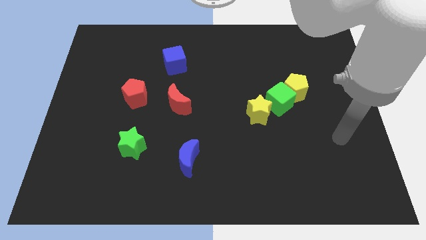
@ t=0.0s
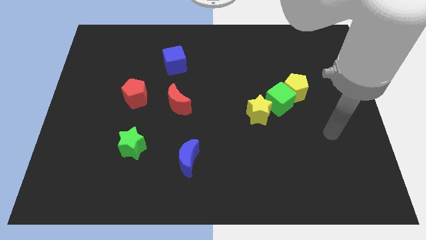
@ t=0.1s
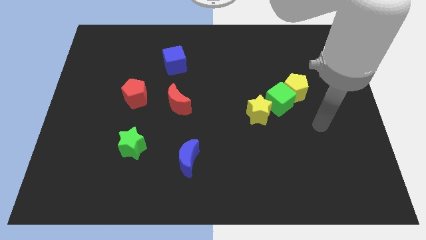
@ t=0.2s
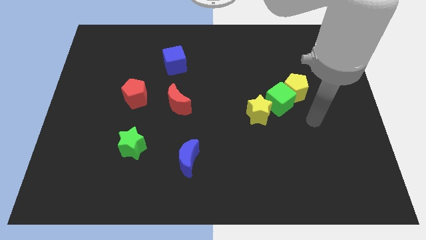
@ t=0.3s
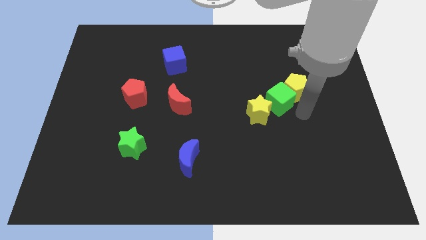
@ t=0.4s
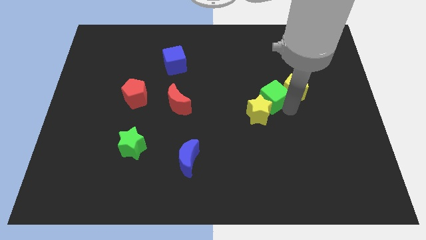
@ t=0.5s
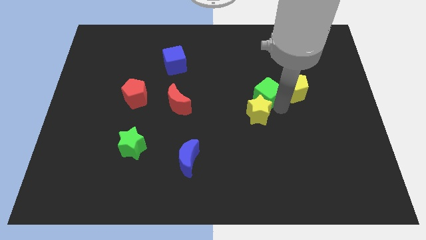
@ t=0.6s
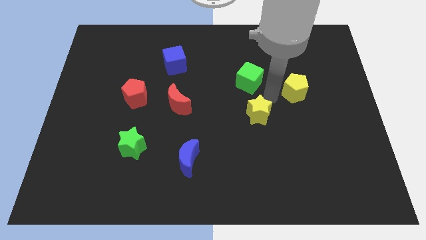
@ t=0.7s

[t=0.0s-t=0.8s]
separate the yellow pentagon from the green cube

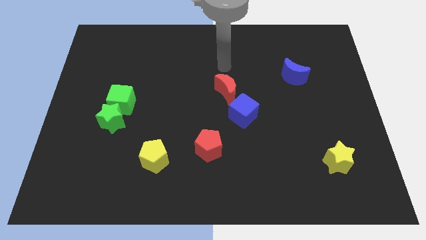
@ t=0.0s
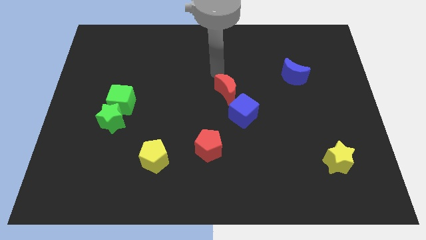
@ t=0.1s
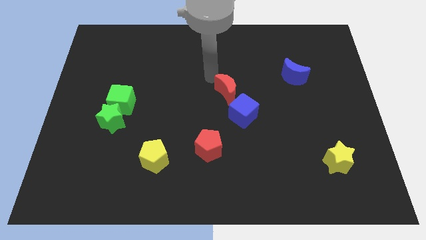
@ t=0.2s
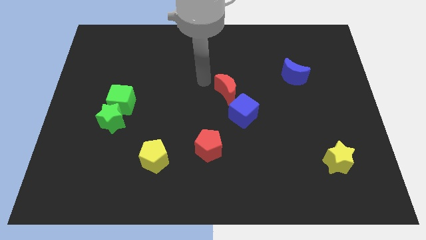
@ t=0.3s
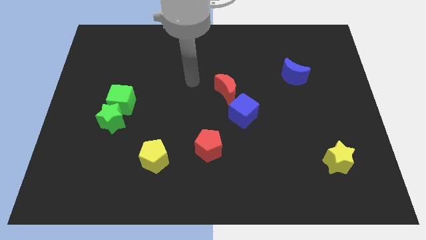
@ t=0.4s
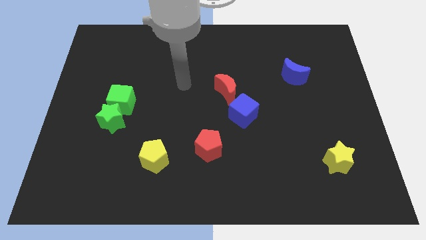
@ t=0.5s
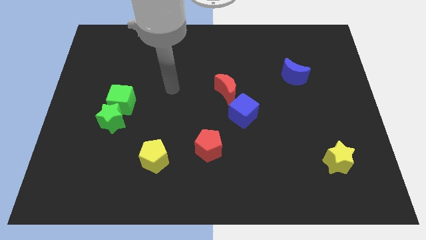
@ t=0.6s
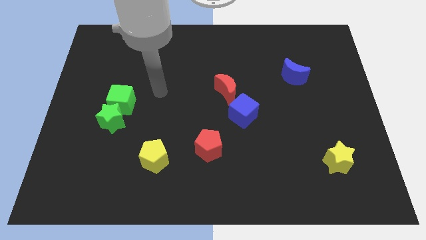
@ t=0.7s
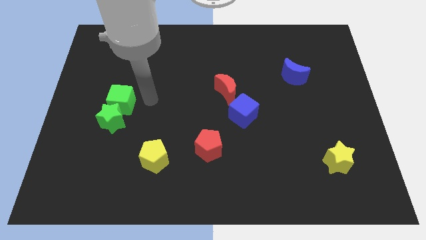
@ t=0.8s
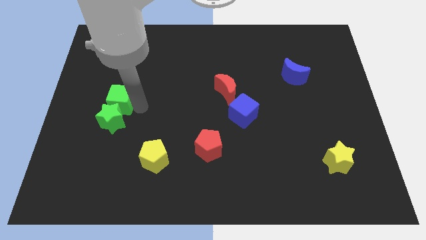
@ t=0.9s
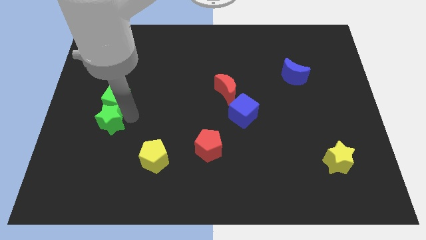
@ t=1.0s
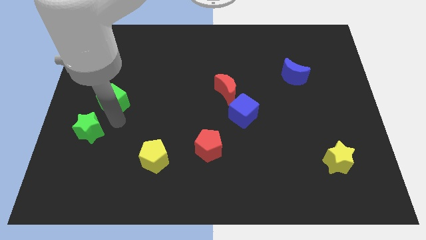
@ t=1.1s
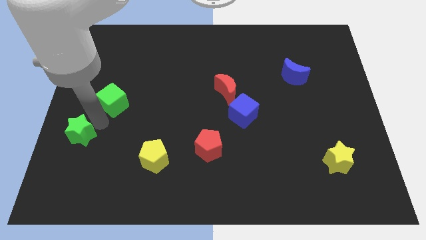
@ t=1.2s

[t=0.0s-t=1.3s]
separate the green cube from the green star

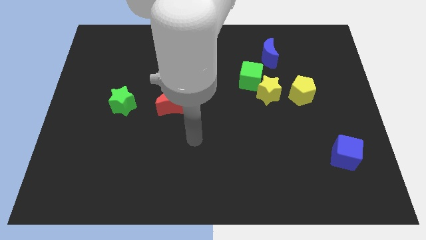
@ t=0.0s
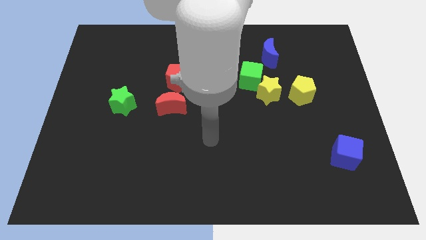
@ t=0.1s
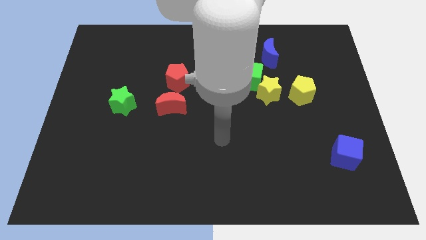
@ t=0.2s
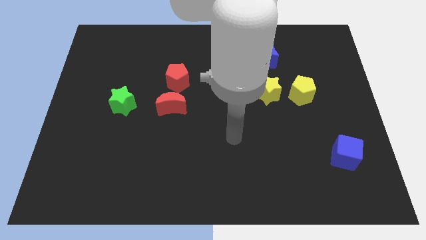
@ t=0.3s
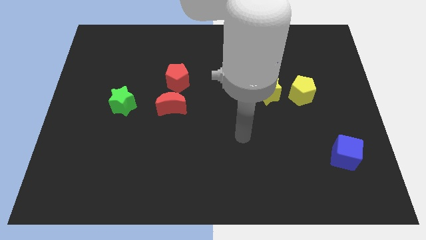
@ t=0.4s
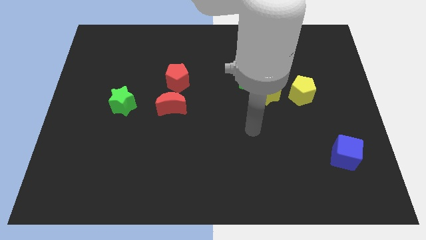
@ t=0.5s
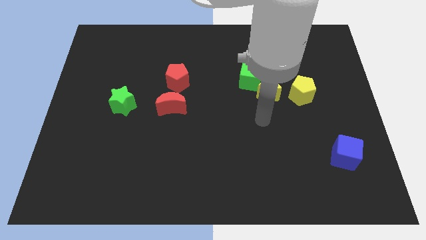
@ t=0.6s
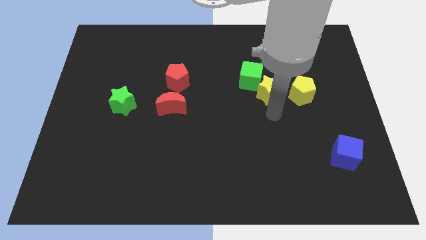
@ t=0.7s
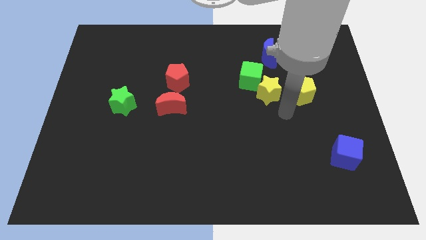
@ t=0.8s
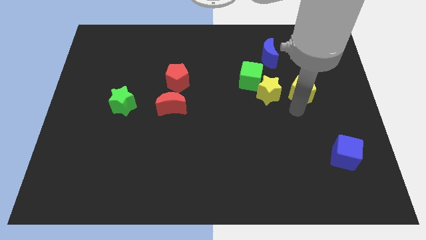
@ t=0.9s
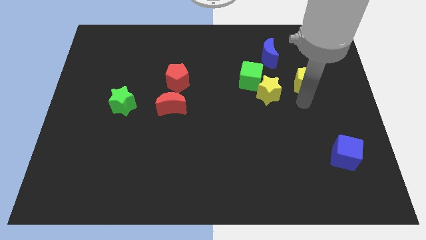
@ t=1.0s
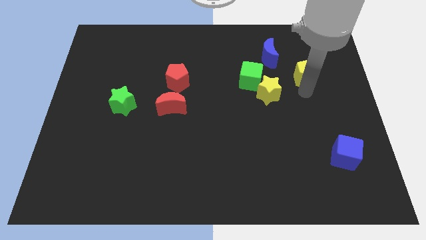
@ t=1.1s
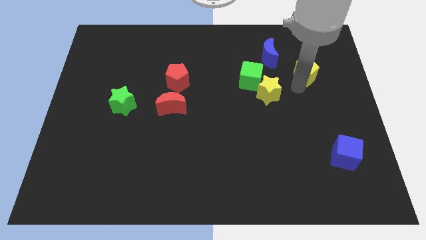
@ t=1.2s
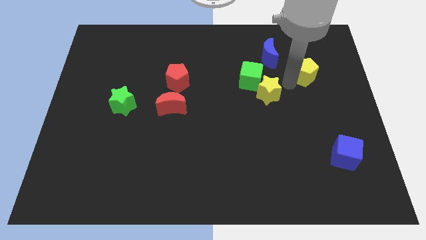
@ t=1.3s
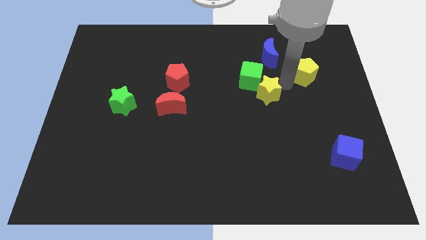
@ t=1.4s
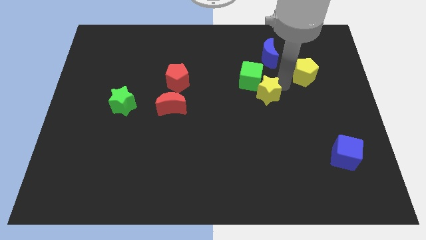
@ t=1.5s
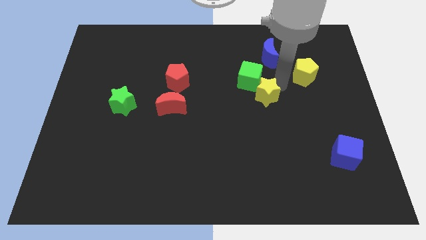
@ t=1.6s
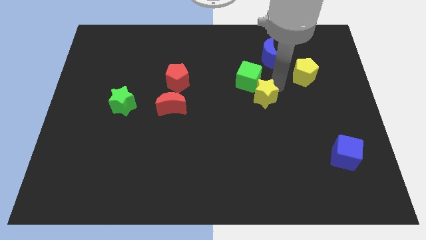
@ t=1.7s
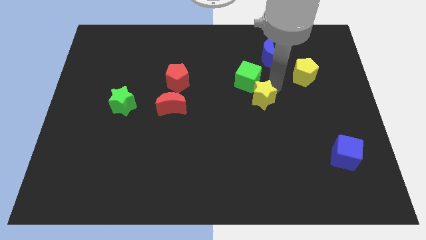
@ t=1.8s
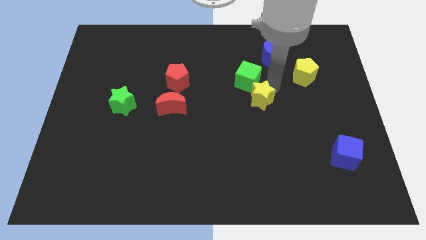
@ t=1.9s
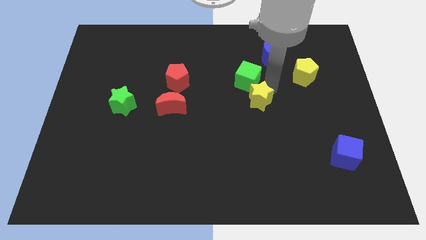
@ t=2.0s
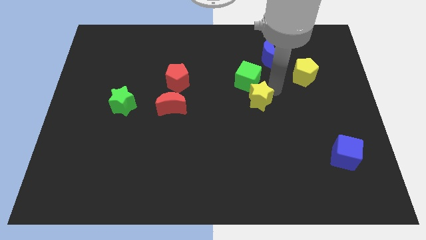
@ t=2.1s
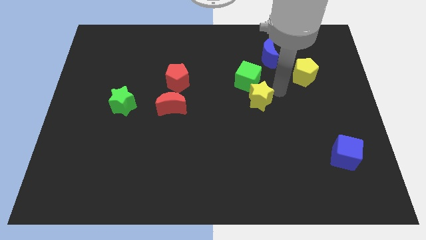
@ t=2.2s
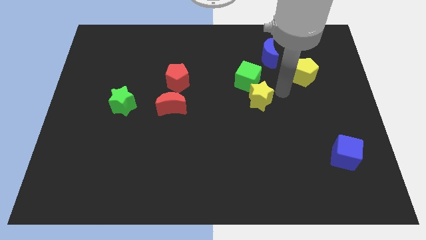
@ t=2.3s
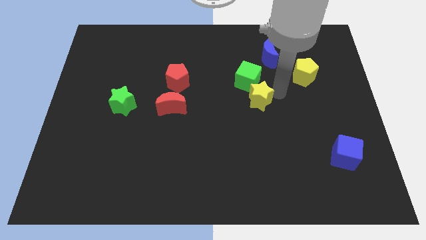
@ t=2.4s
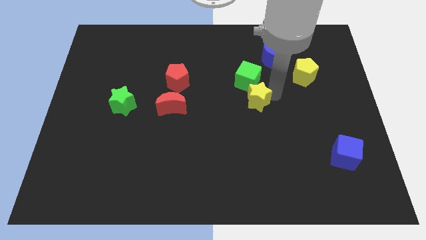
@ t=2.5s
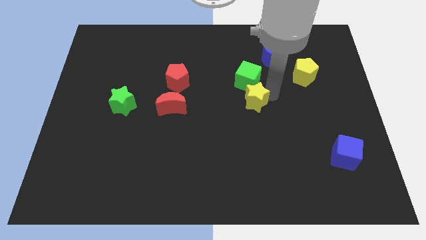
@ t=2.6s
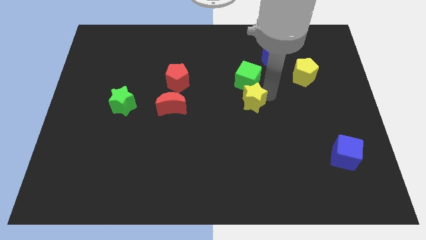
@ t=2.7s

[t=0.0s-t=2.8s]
separate the yellow star from the green cube and yellow pentagon

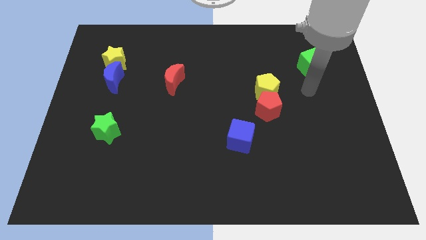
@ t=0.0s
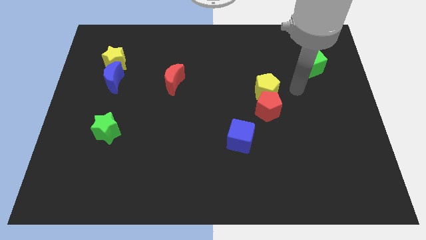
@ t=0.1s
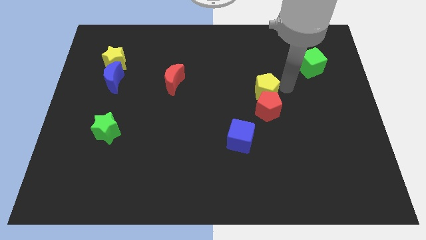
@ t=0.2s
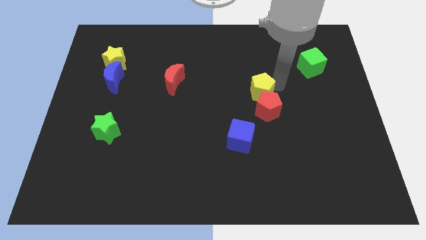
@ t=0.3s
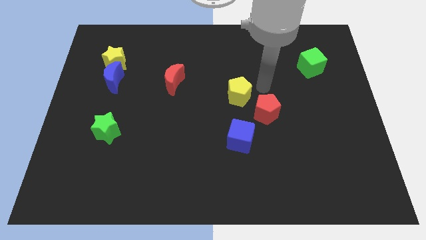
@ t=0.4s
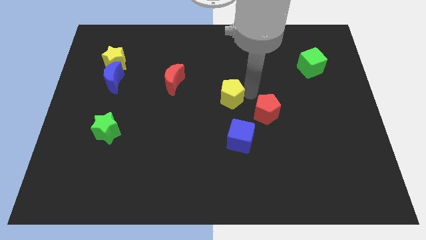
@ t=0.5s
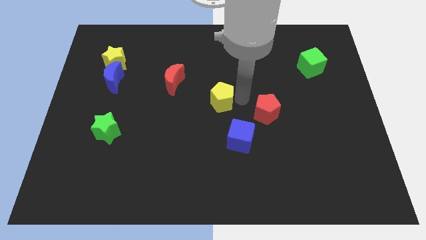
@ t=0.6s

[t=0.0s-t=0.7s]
move the red pentagon away from the yellow pentagon

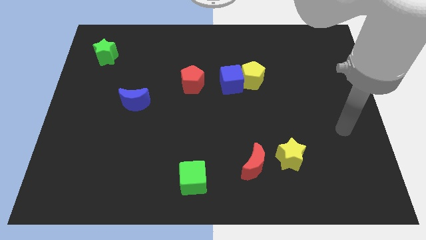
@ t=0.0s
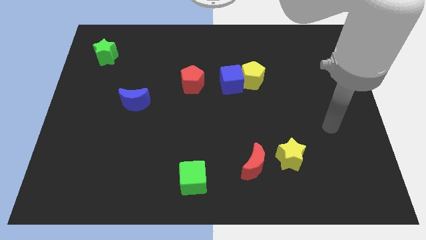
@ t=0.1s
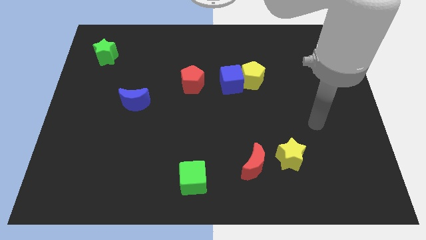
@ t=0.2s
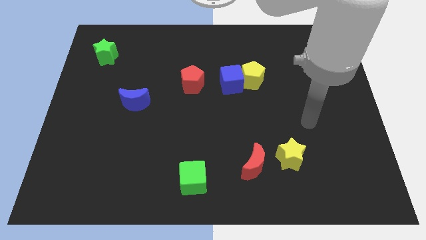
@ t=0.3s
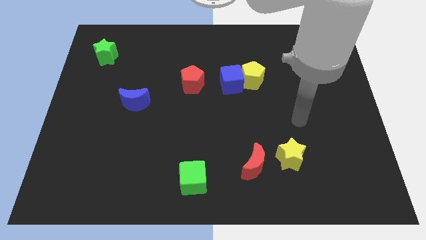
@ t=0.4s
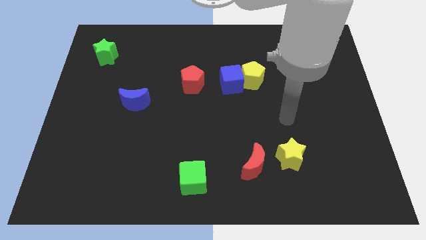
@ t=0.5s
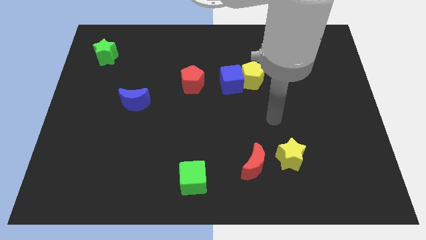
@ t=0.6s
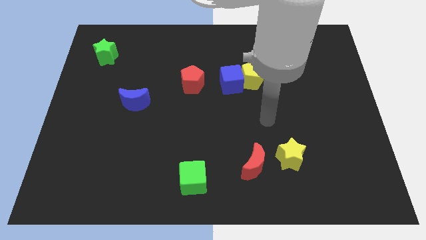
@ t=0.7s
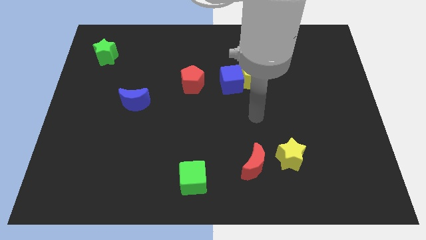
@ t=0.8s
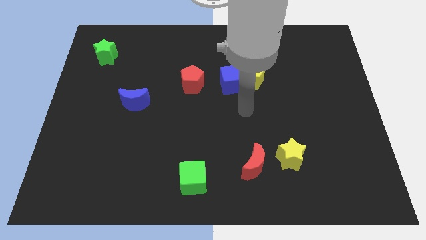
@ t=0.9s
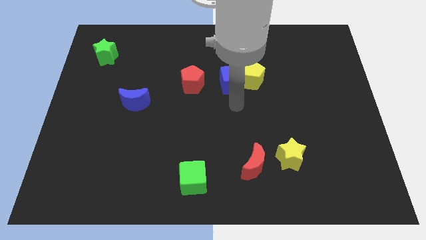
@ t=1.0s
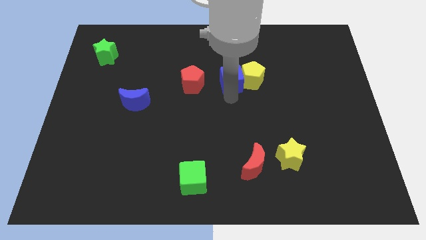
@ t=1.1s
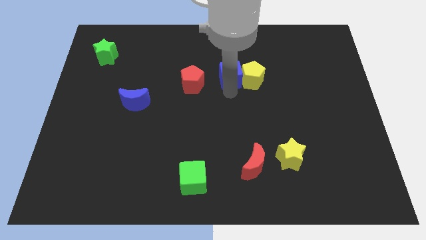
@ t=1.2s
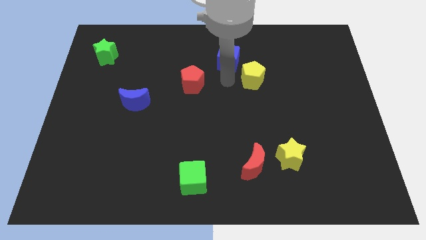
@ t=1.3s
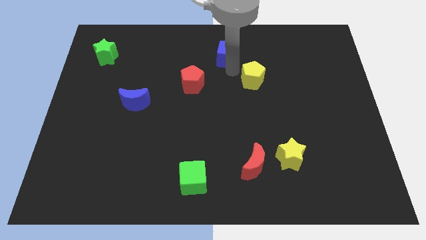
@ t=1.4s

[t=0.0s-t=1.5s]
separate the yellow pentagon from the blue cube

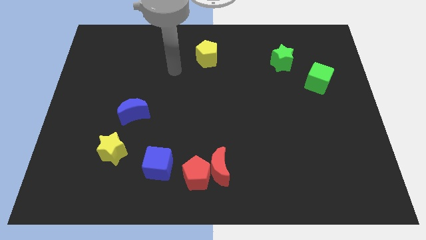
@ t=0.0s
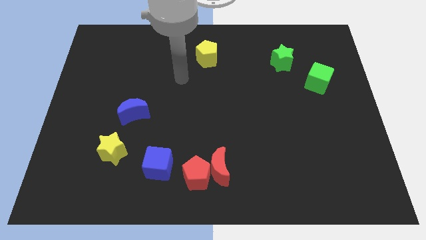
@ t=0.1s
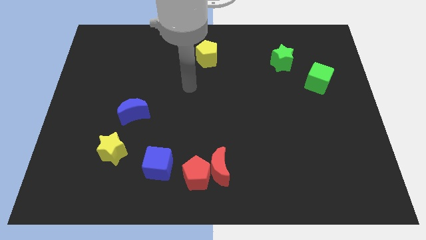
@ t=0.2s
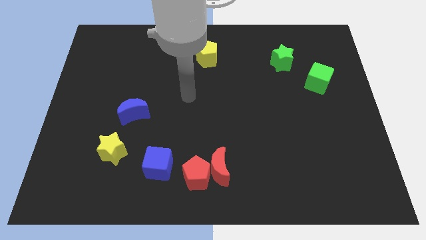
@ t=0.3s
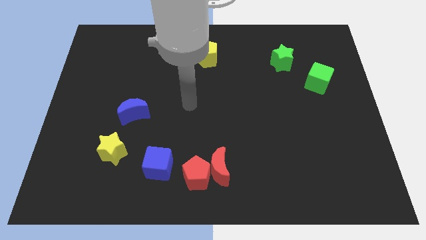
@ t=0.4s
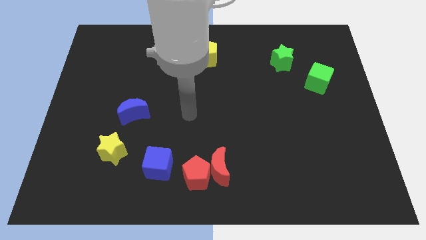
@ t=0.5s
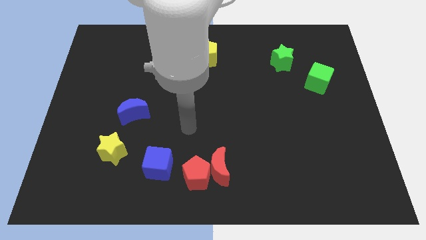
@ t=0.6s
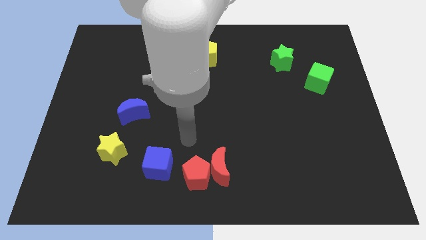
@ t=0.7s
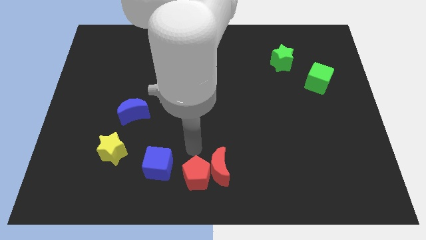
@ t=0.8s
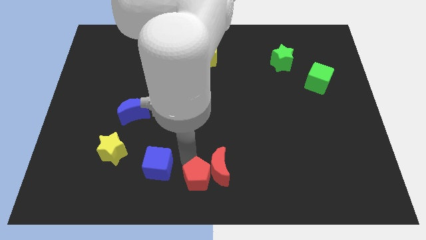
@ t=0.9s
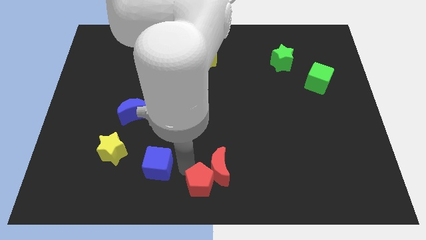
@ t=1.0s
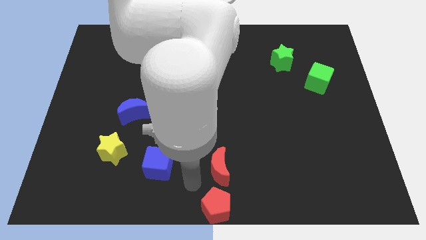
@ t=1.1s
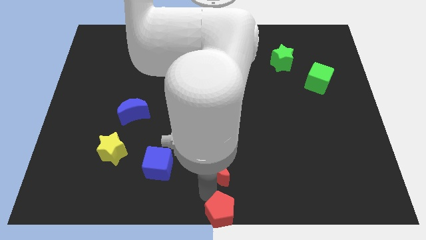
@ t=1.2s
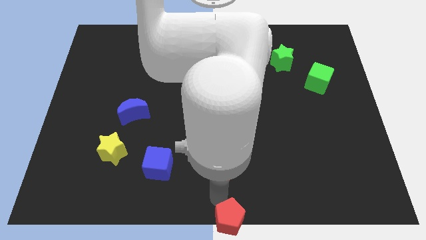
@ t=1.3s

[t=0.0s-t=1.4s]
move the red moon away from the red pentagon

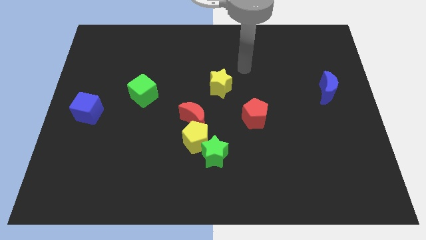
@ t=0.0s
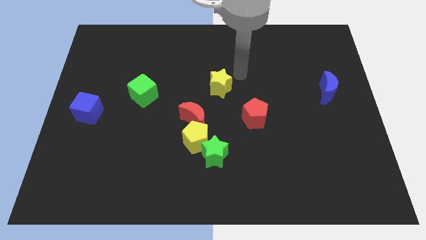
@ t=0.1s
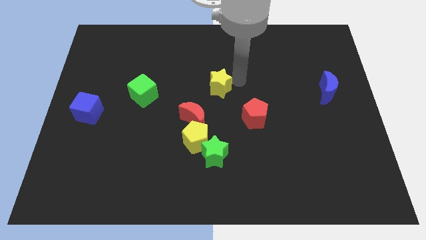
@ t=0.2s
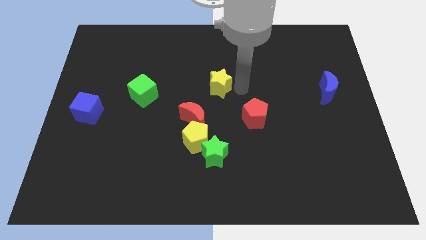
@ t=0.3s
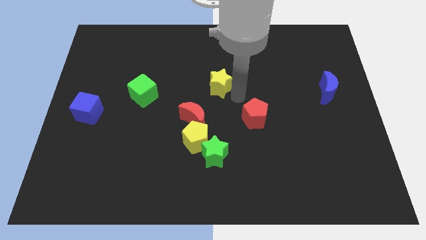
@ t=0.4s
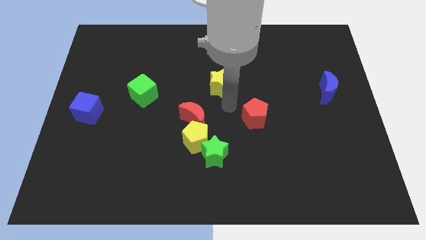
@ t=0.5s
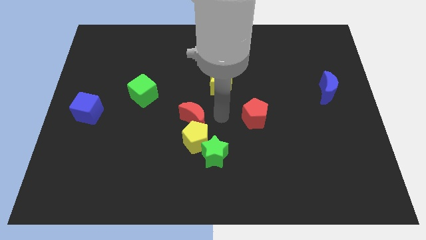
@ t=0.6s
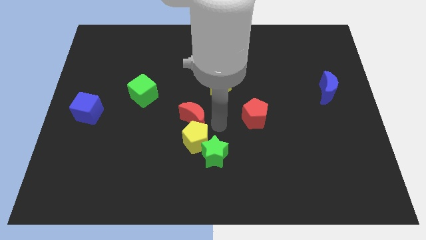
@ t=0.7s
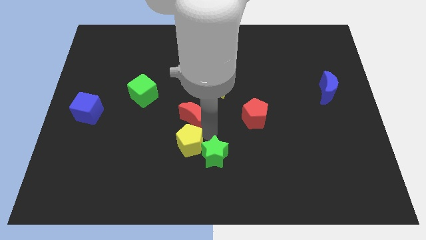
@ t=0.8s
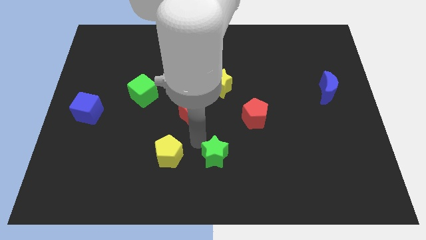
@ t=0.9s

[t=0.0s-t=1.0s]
pull the red moon apart from the yellow pentagon
